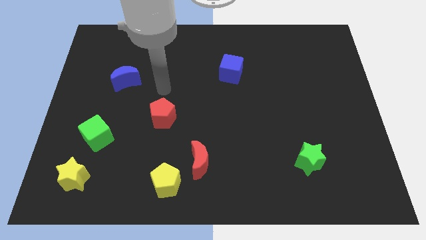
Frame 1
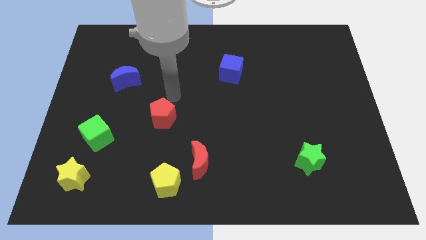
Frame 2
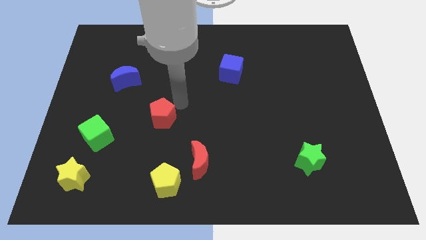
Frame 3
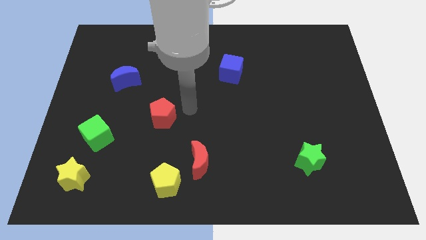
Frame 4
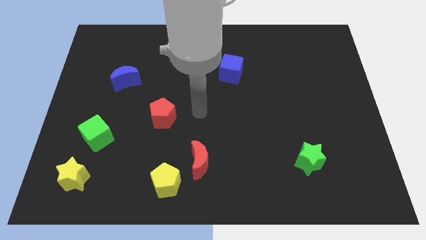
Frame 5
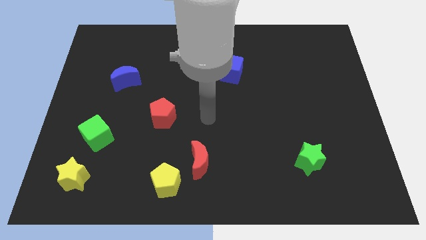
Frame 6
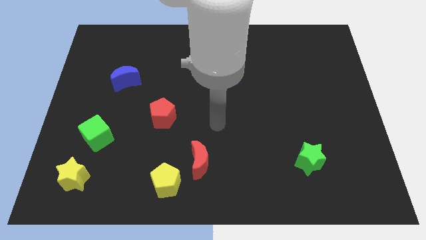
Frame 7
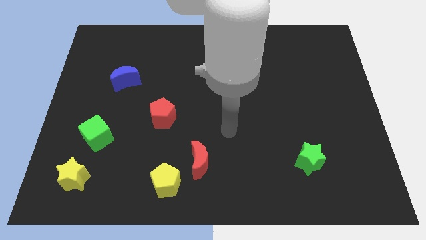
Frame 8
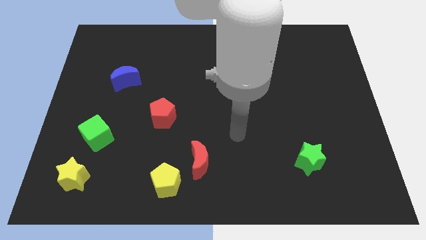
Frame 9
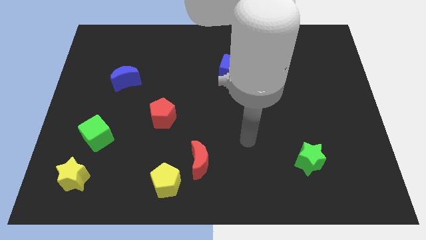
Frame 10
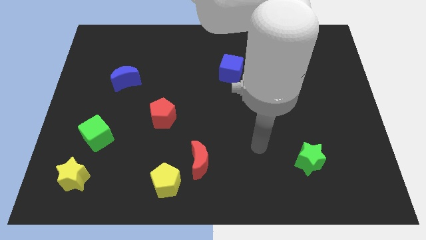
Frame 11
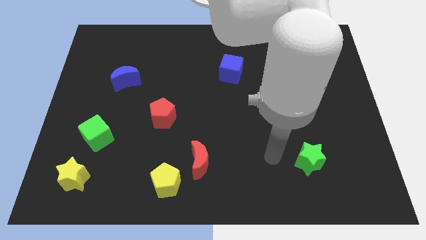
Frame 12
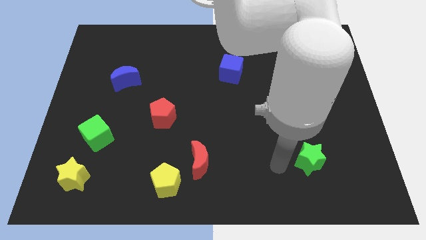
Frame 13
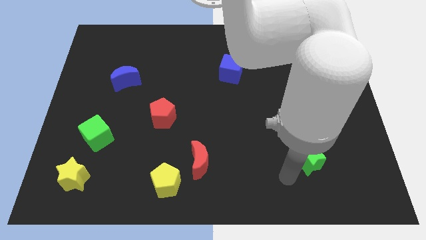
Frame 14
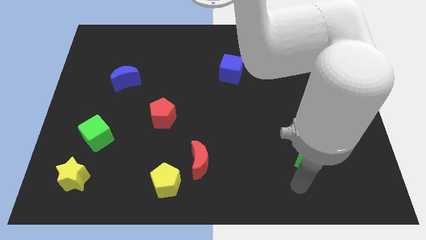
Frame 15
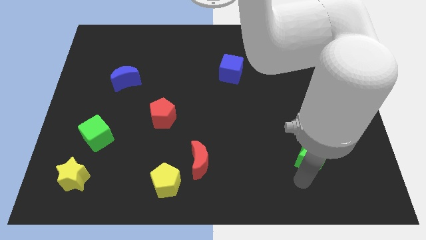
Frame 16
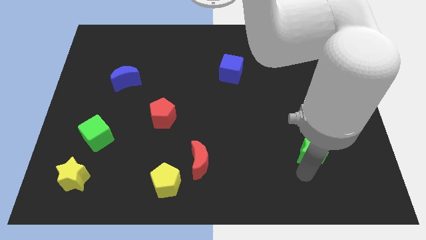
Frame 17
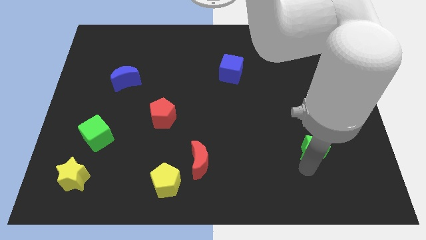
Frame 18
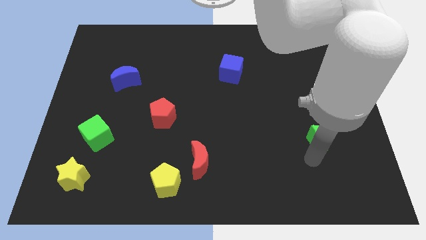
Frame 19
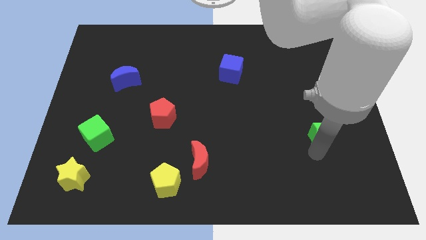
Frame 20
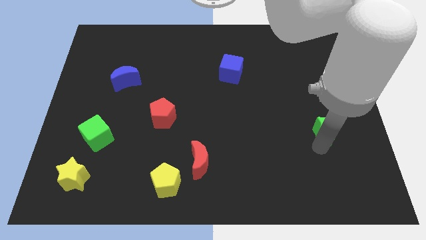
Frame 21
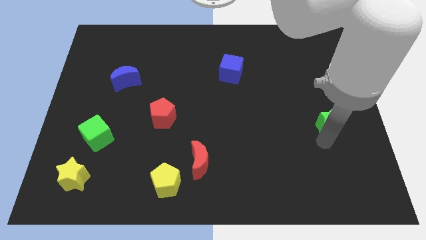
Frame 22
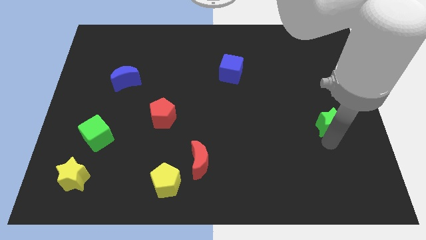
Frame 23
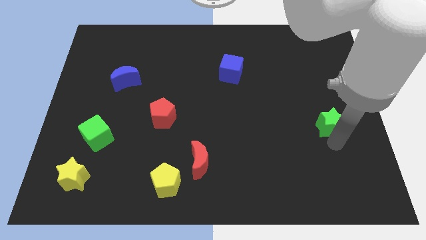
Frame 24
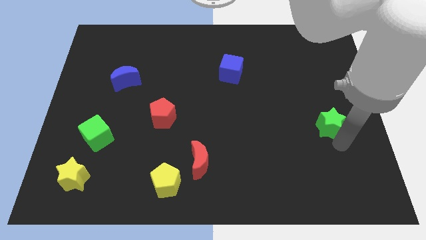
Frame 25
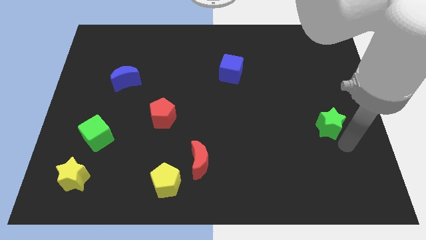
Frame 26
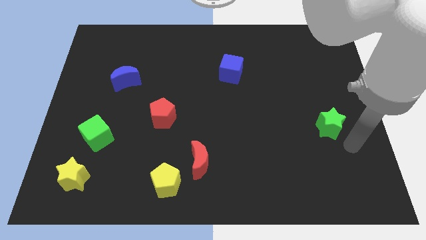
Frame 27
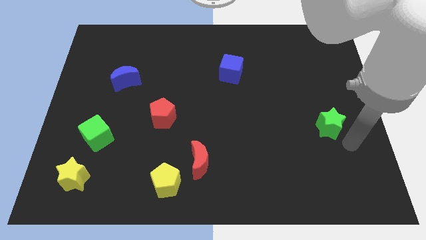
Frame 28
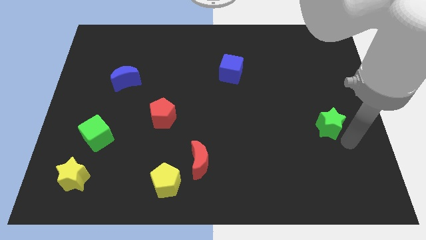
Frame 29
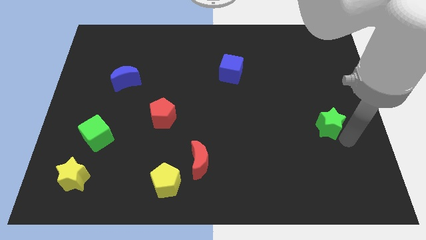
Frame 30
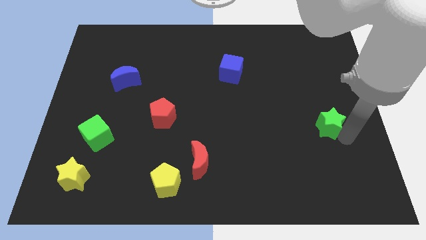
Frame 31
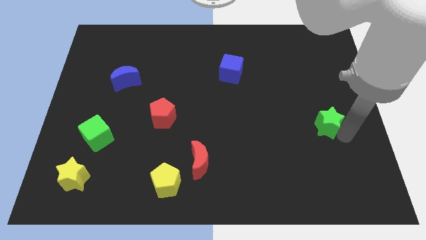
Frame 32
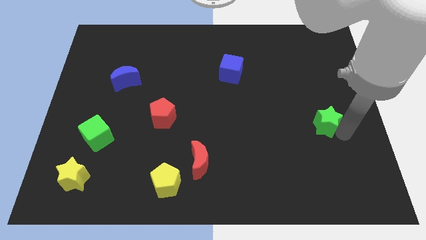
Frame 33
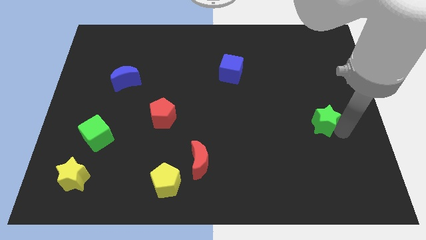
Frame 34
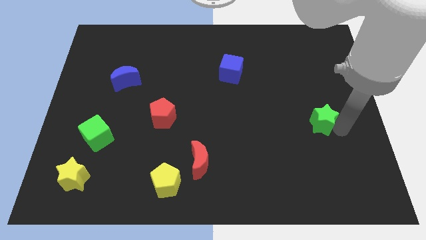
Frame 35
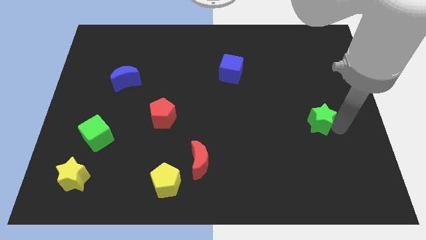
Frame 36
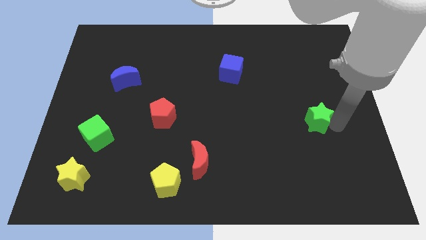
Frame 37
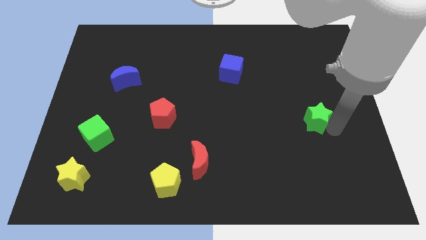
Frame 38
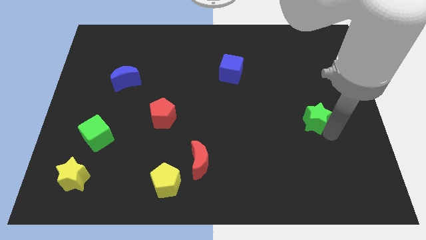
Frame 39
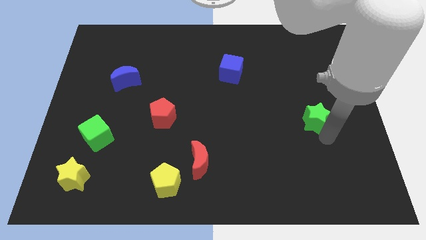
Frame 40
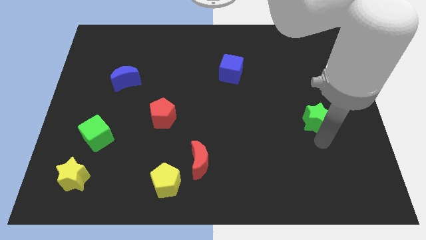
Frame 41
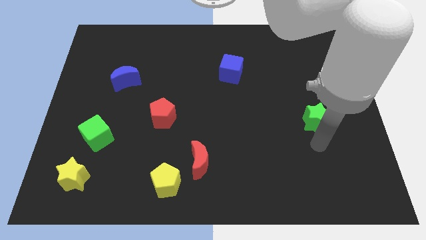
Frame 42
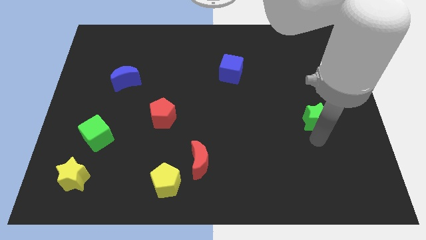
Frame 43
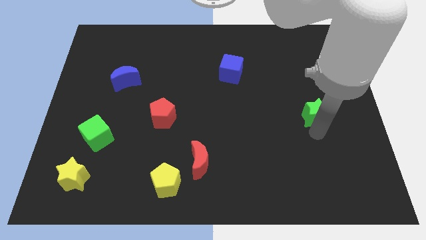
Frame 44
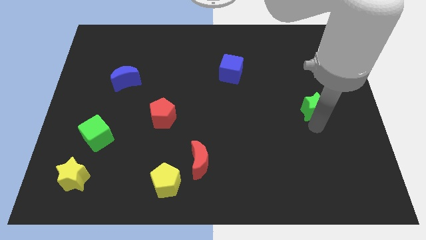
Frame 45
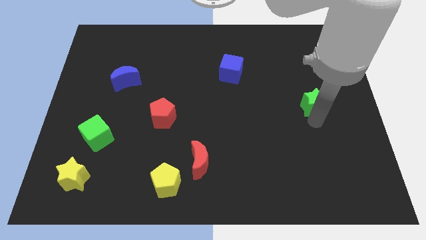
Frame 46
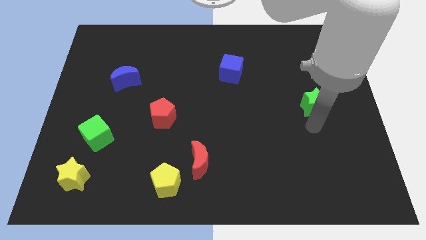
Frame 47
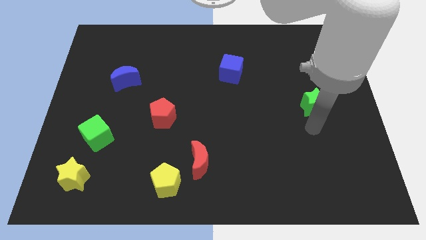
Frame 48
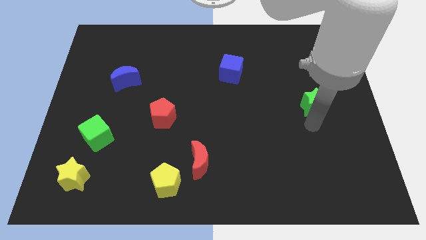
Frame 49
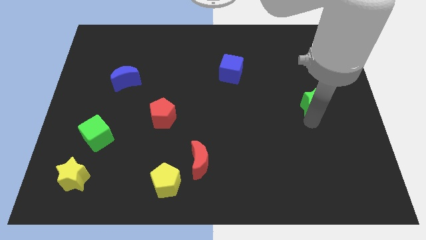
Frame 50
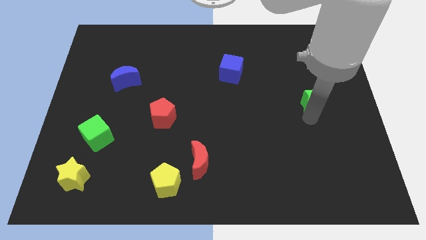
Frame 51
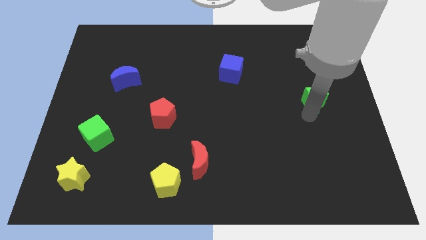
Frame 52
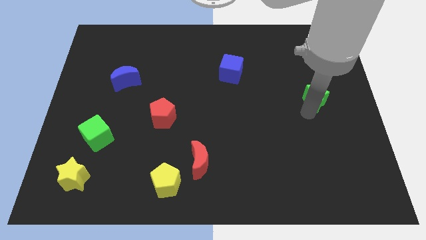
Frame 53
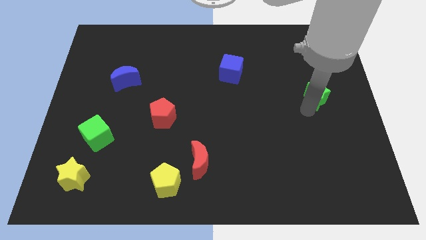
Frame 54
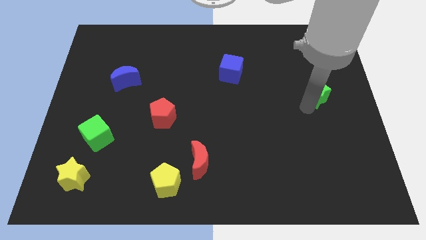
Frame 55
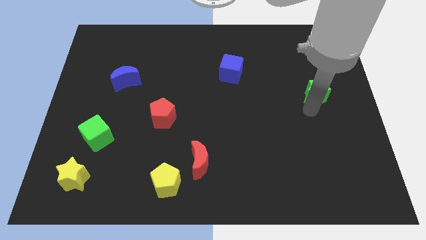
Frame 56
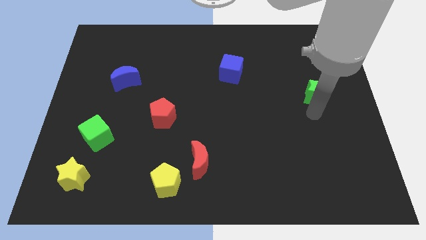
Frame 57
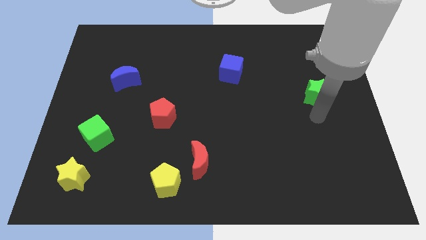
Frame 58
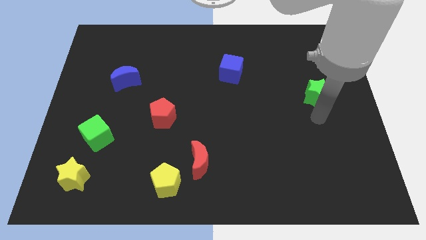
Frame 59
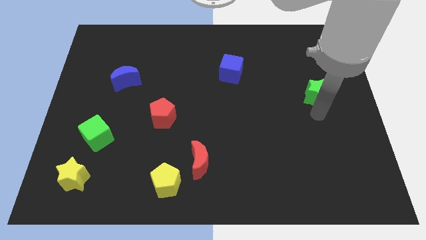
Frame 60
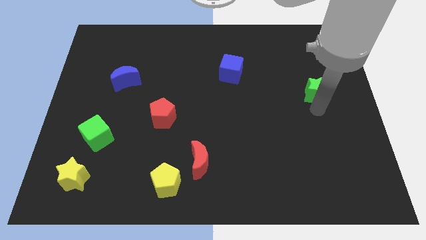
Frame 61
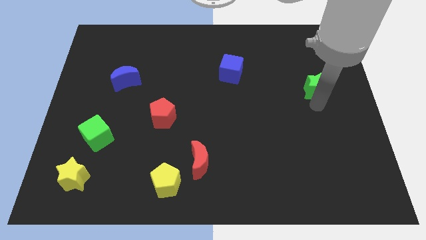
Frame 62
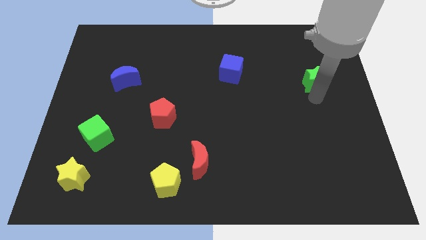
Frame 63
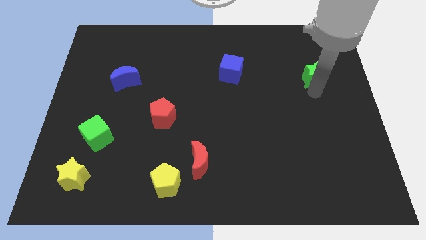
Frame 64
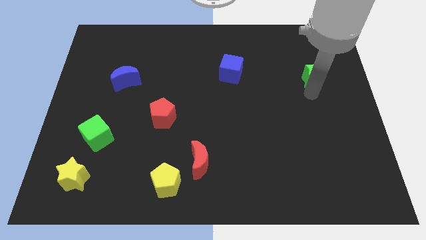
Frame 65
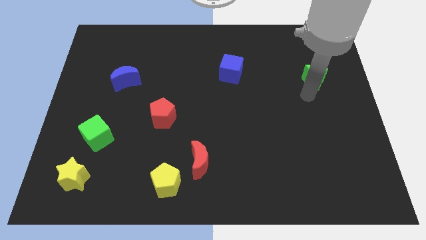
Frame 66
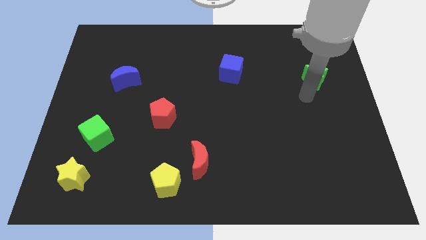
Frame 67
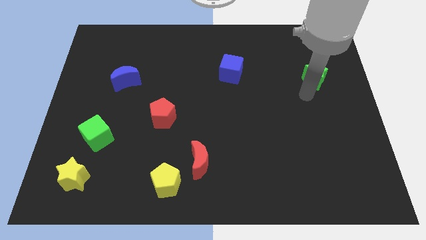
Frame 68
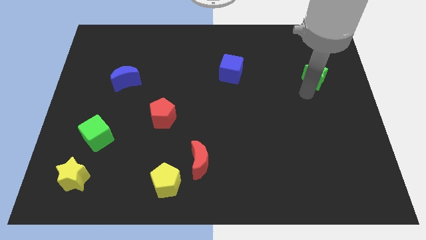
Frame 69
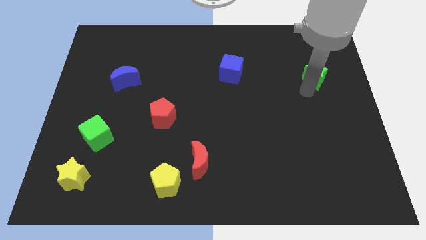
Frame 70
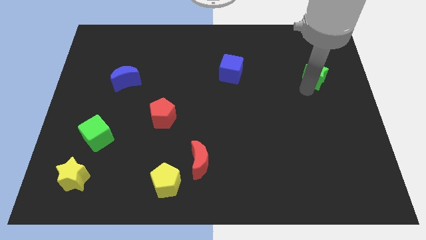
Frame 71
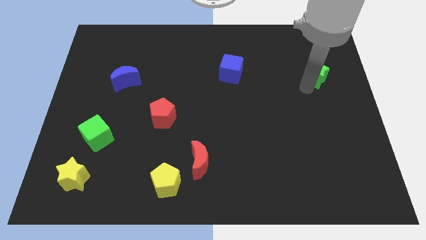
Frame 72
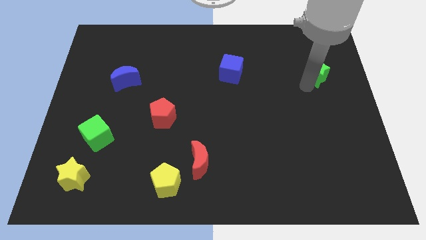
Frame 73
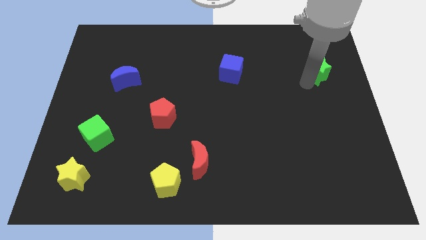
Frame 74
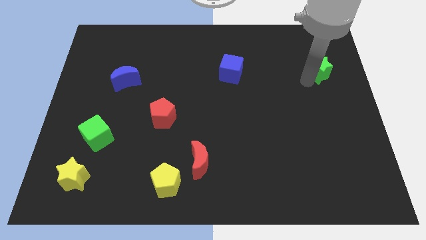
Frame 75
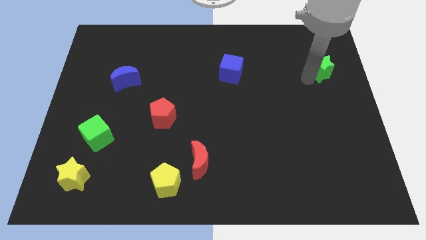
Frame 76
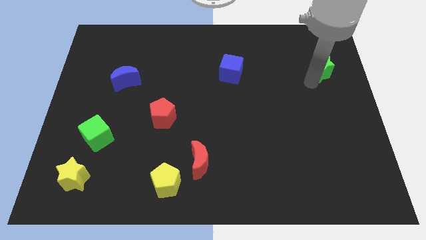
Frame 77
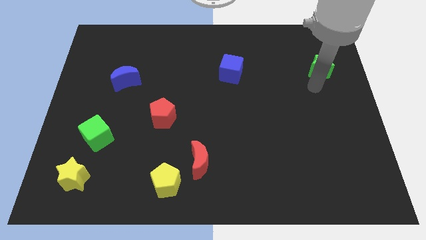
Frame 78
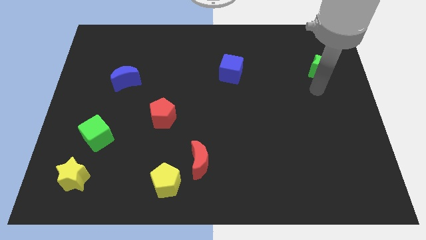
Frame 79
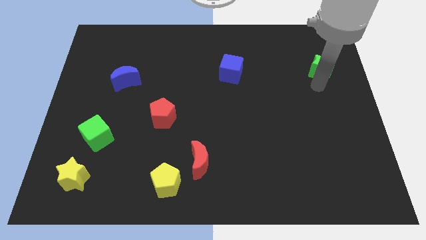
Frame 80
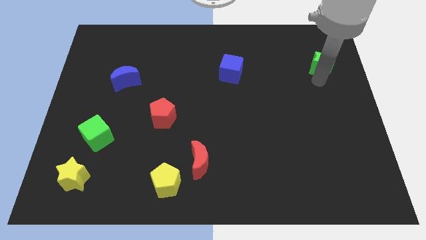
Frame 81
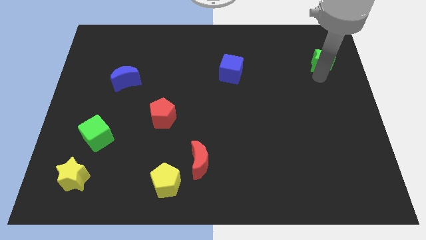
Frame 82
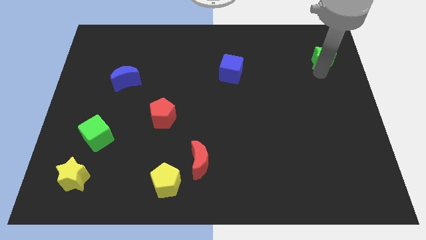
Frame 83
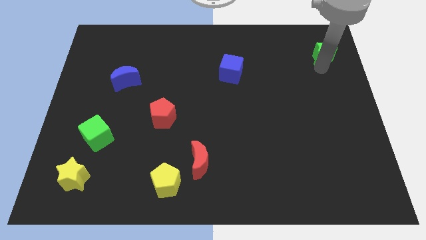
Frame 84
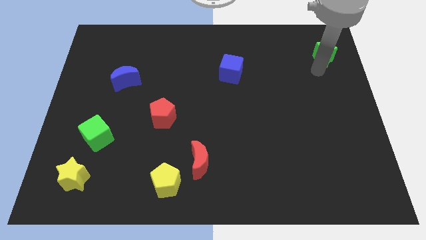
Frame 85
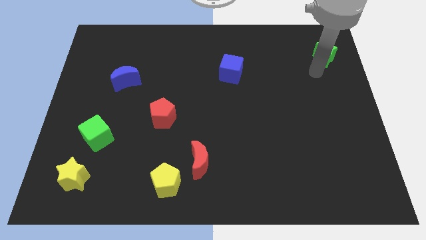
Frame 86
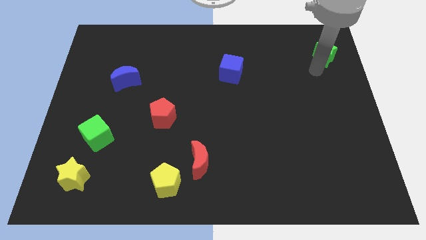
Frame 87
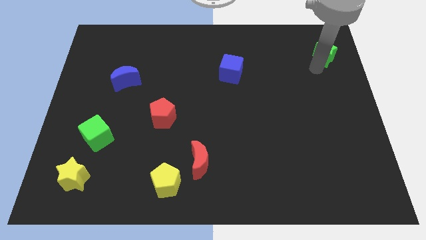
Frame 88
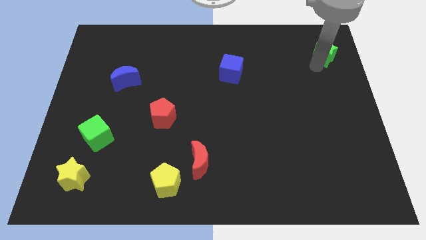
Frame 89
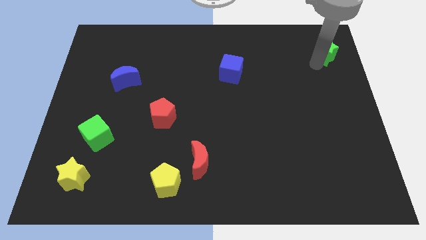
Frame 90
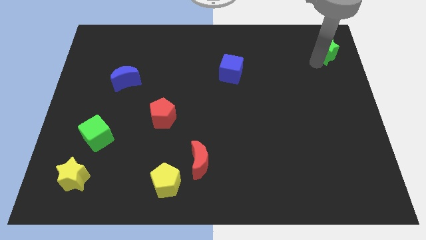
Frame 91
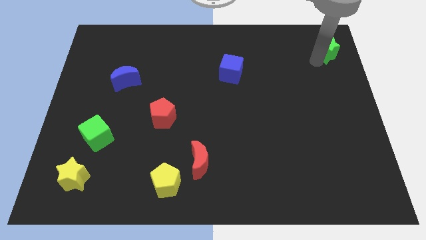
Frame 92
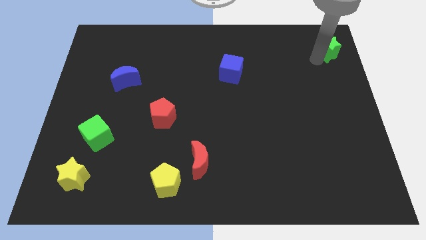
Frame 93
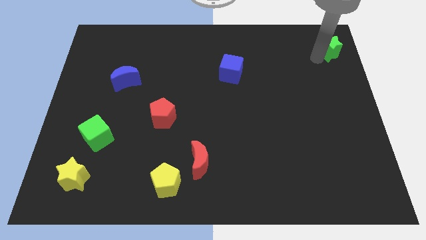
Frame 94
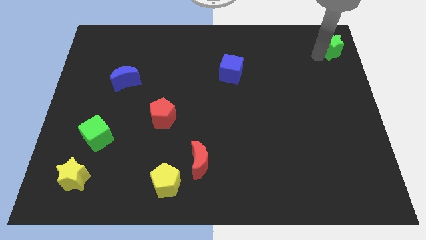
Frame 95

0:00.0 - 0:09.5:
slide the green star to the top right of the board
